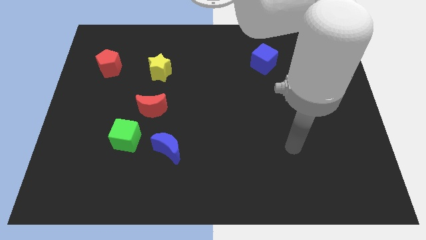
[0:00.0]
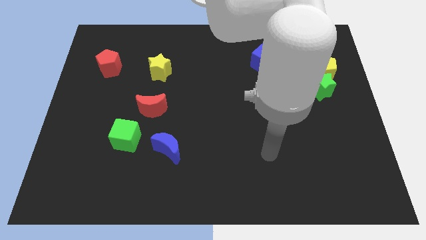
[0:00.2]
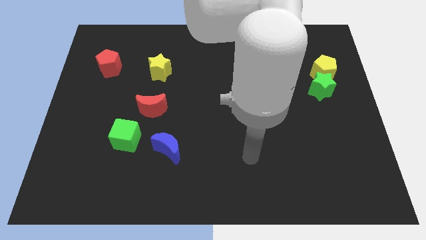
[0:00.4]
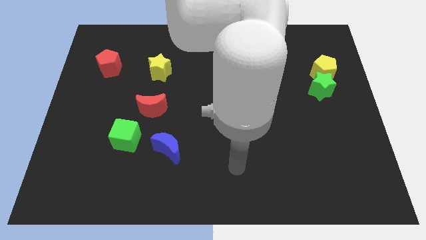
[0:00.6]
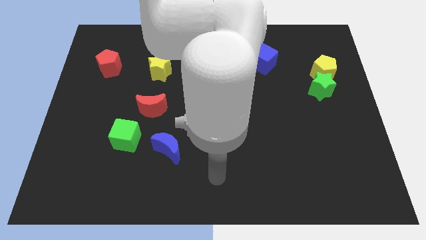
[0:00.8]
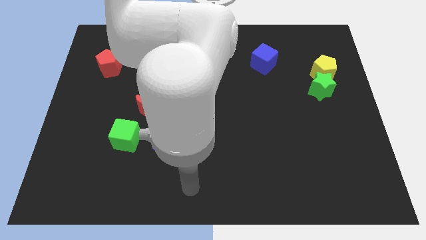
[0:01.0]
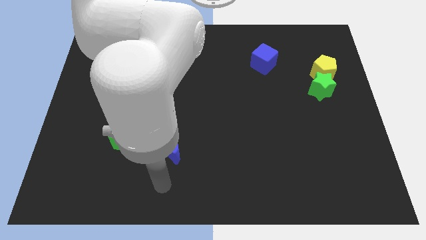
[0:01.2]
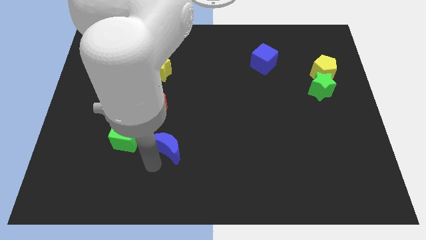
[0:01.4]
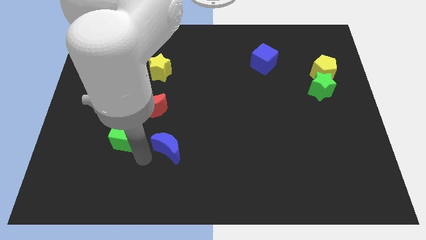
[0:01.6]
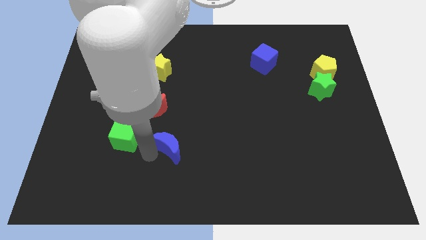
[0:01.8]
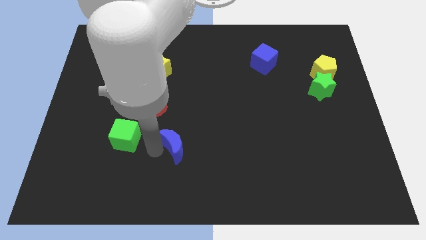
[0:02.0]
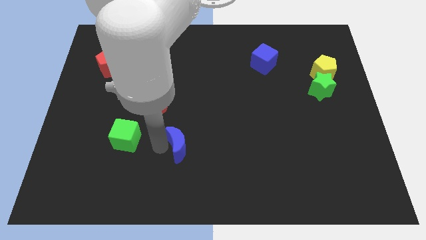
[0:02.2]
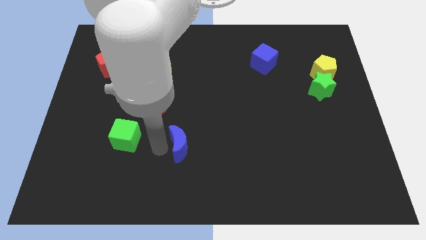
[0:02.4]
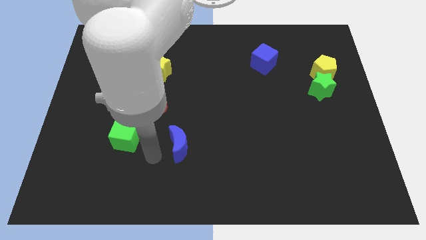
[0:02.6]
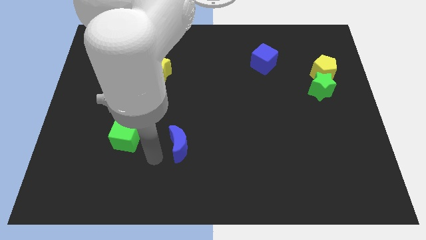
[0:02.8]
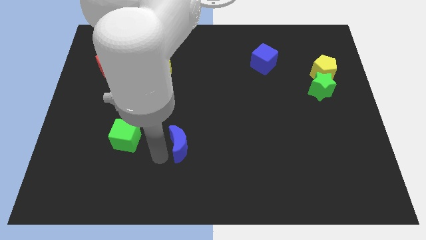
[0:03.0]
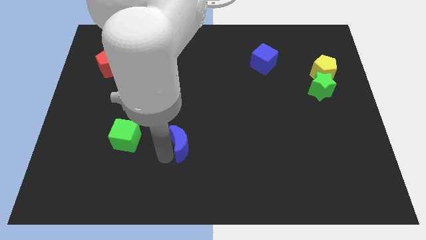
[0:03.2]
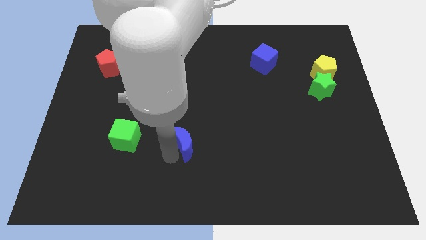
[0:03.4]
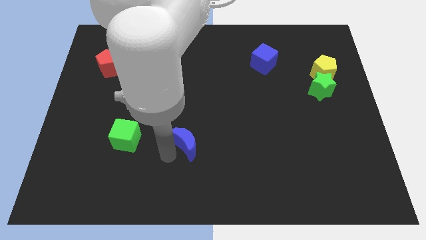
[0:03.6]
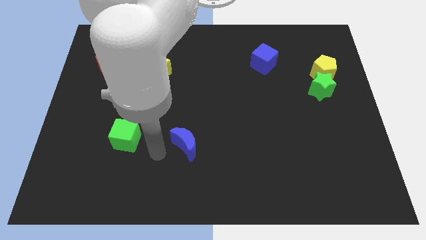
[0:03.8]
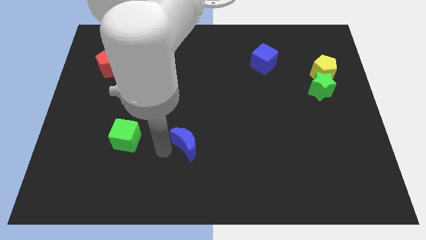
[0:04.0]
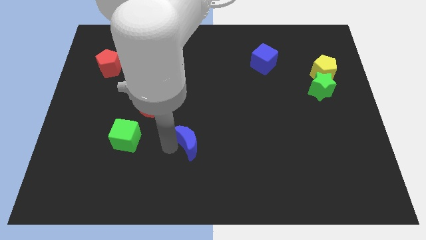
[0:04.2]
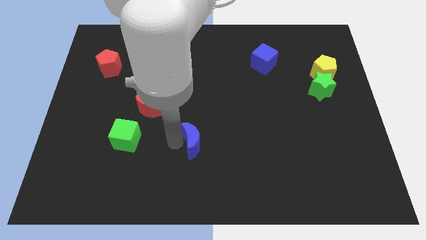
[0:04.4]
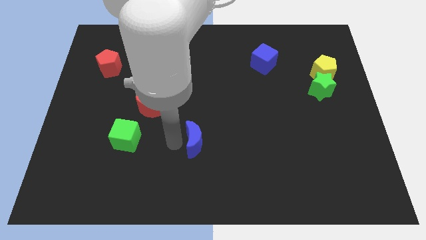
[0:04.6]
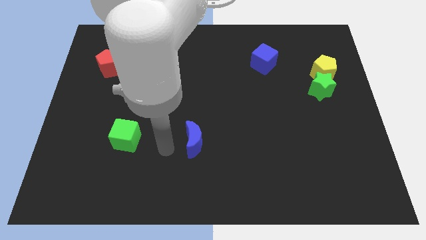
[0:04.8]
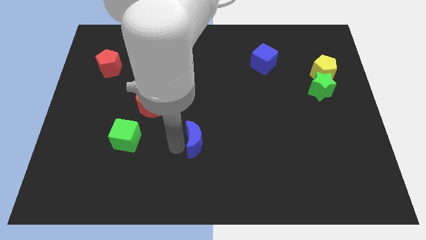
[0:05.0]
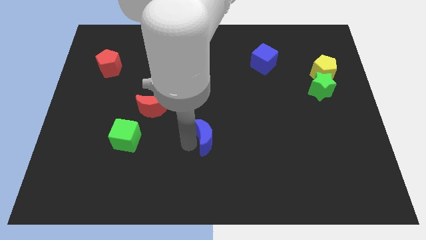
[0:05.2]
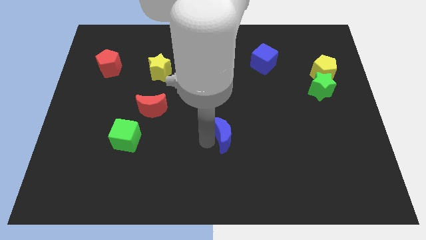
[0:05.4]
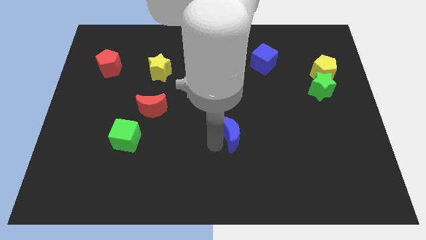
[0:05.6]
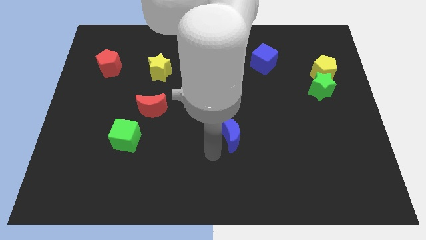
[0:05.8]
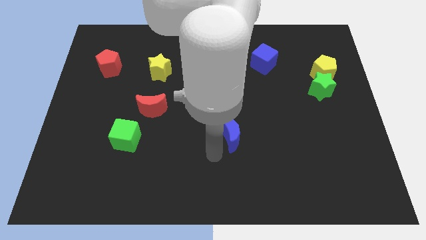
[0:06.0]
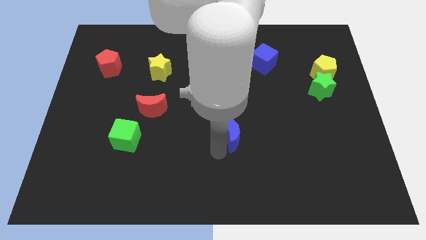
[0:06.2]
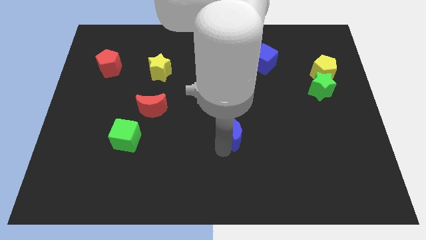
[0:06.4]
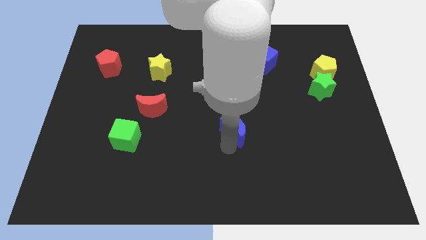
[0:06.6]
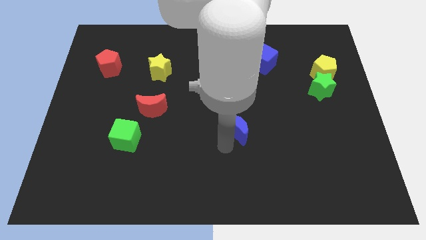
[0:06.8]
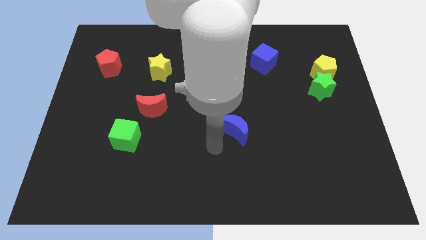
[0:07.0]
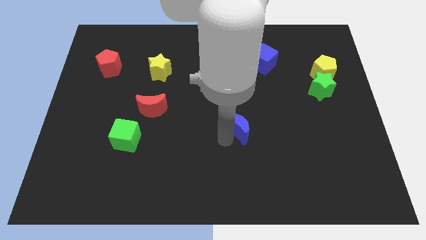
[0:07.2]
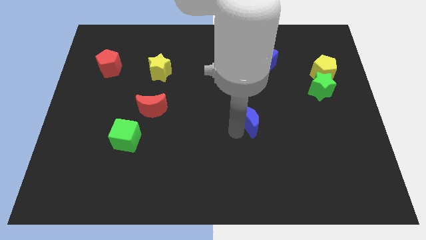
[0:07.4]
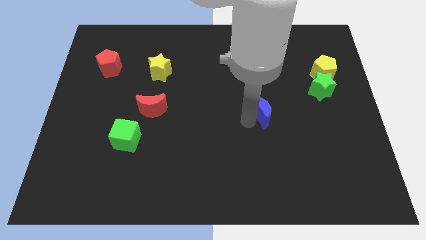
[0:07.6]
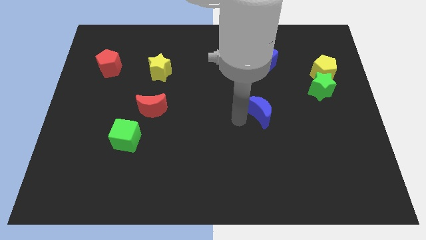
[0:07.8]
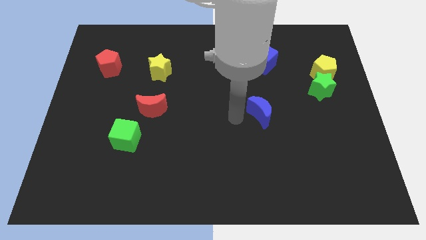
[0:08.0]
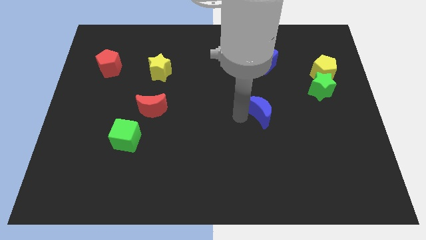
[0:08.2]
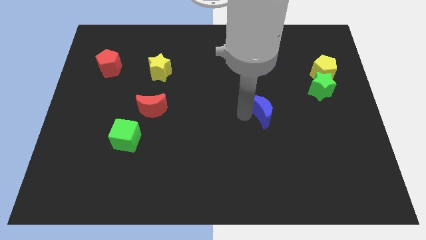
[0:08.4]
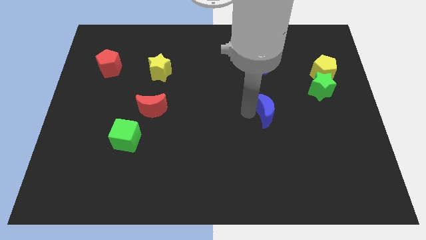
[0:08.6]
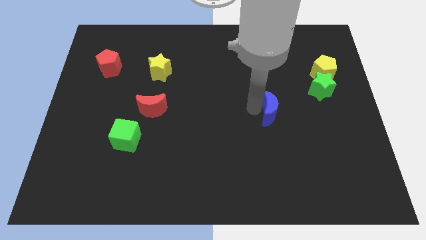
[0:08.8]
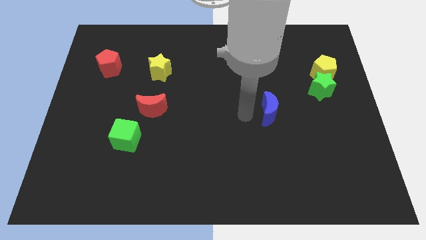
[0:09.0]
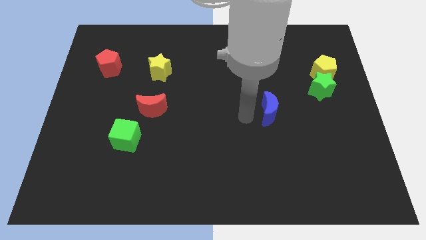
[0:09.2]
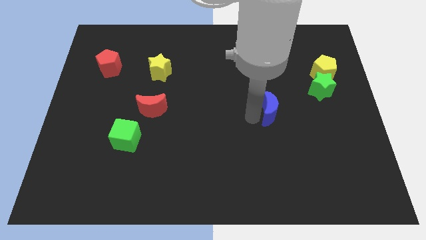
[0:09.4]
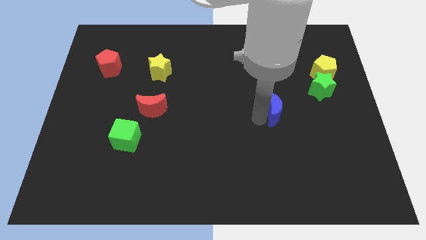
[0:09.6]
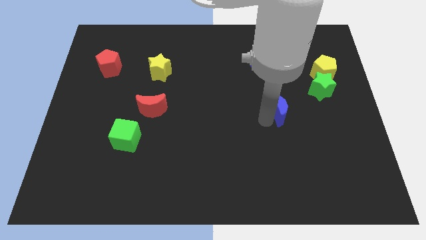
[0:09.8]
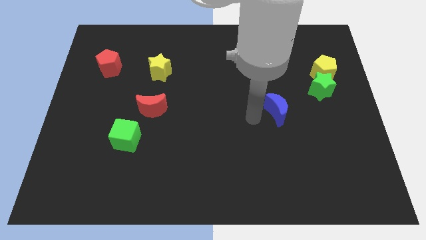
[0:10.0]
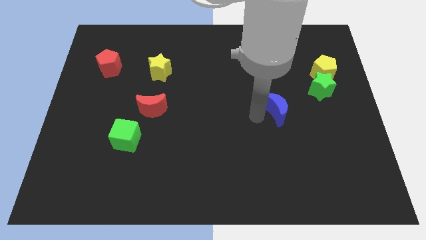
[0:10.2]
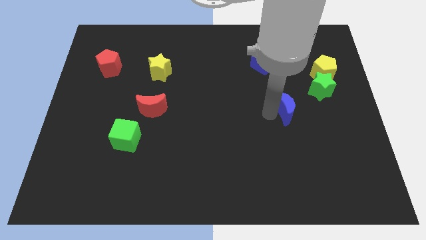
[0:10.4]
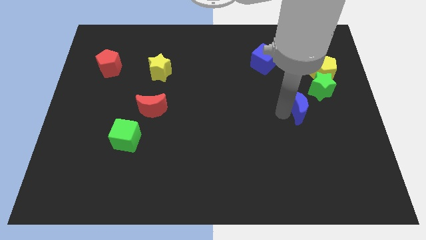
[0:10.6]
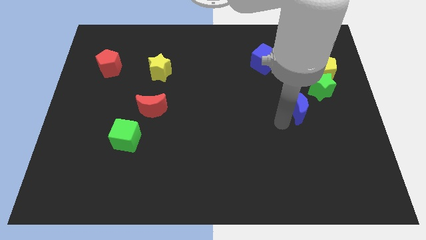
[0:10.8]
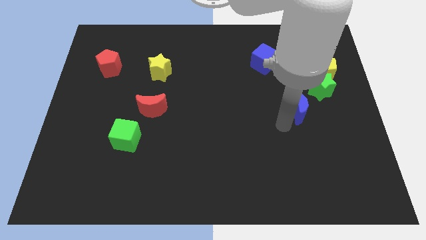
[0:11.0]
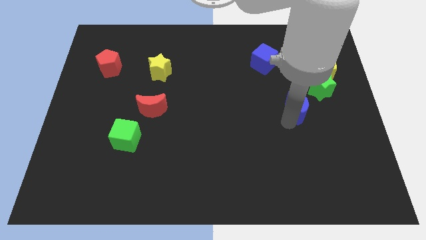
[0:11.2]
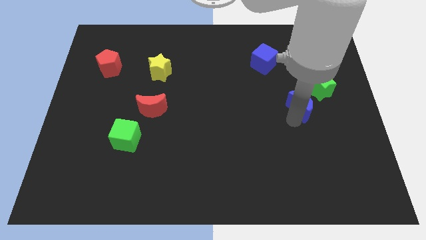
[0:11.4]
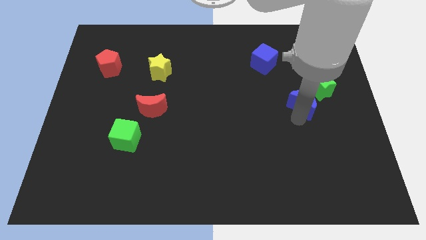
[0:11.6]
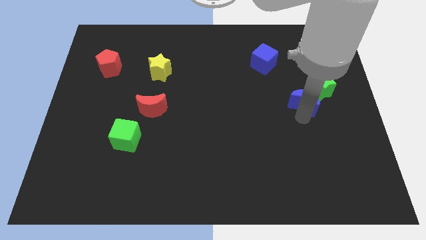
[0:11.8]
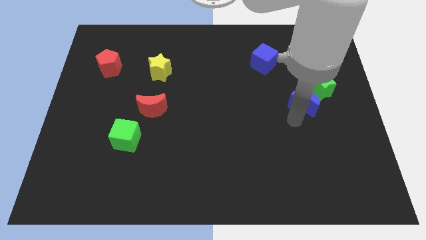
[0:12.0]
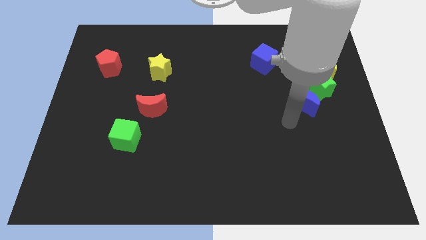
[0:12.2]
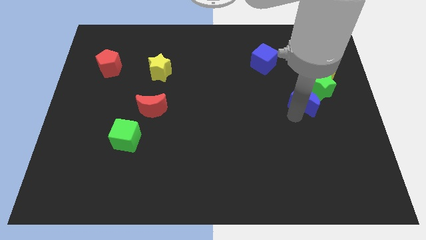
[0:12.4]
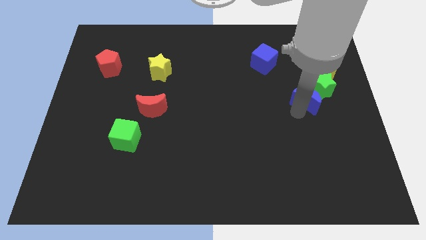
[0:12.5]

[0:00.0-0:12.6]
move the blue moon to the green star

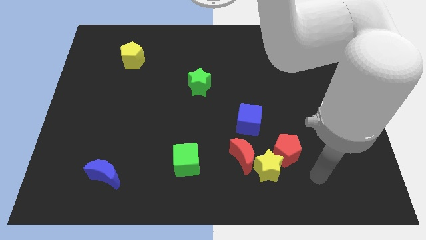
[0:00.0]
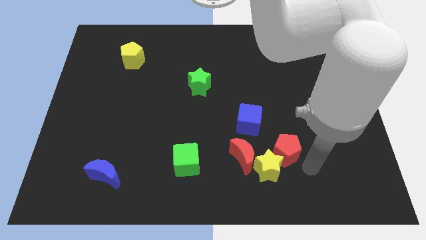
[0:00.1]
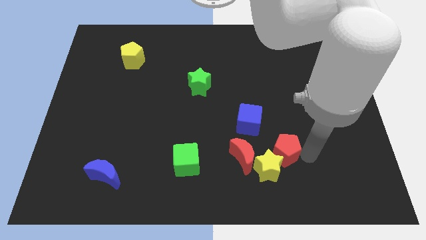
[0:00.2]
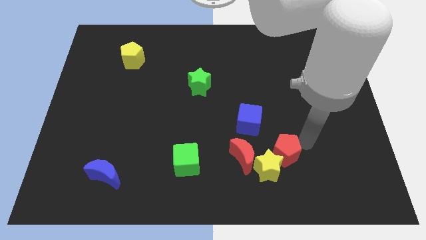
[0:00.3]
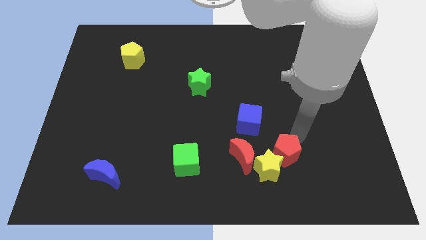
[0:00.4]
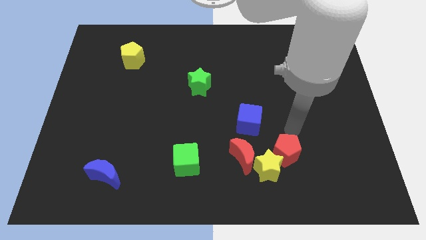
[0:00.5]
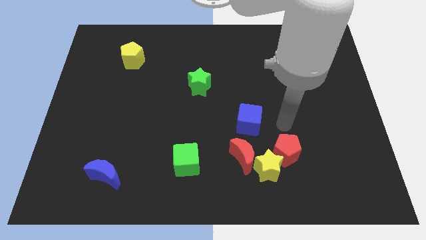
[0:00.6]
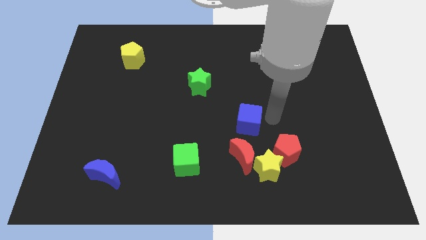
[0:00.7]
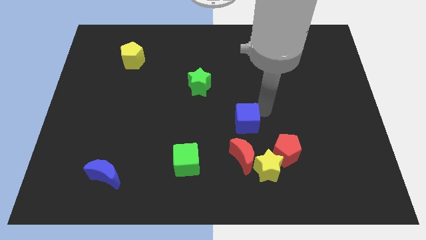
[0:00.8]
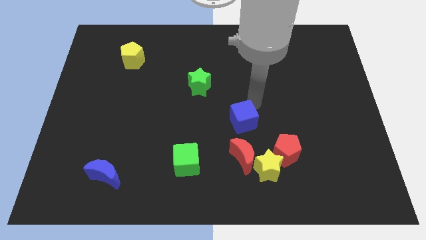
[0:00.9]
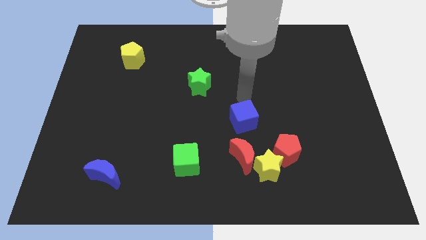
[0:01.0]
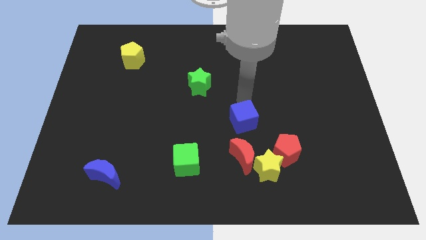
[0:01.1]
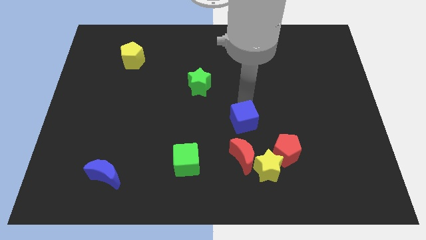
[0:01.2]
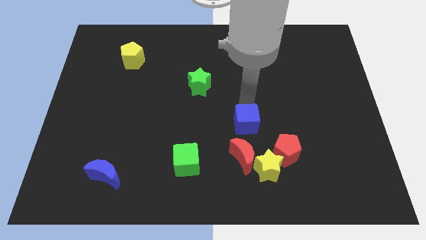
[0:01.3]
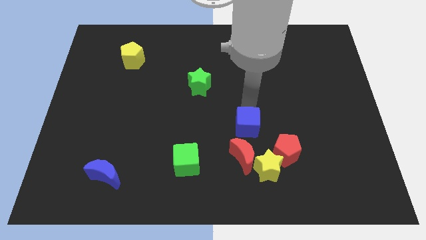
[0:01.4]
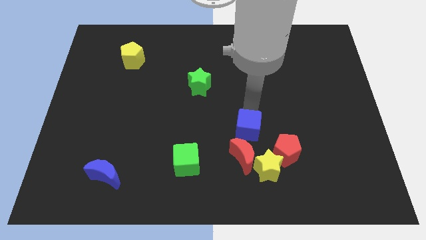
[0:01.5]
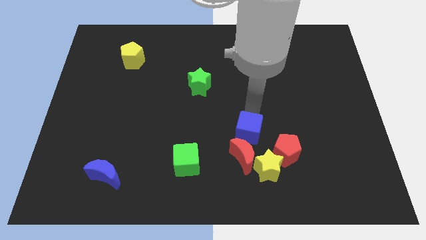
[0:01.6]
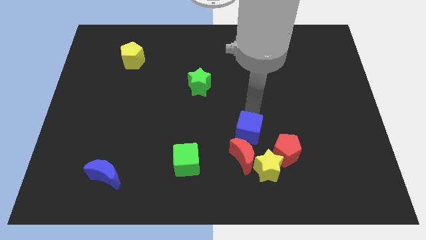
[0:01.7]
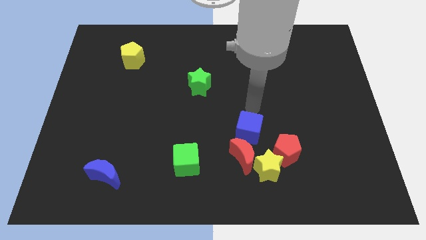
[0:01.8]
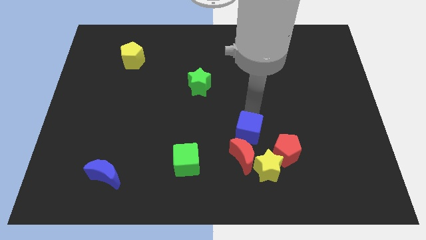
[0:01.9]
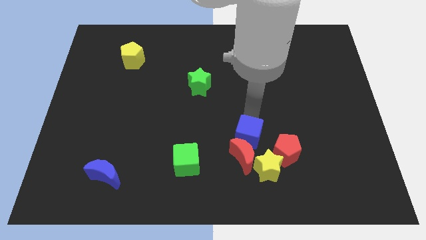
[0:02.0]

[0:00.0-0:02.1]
push the blue cube to the red moon
